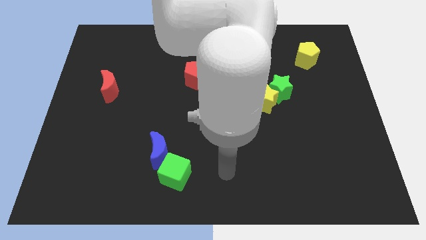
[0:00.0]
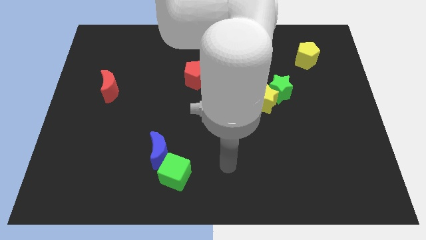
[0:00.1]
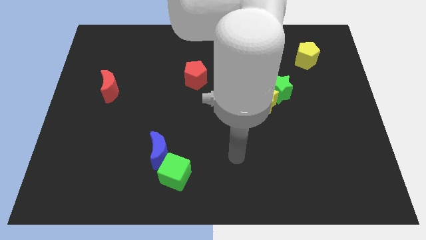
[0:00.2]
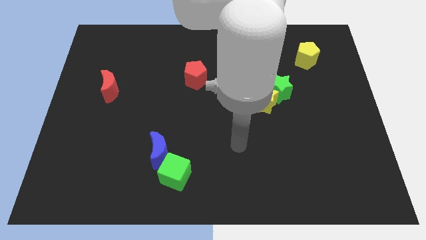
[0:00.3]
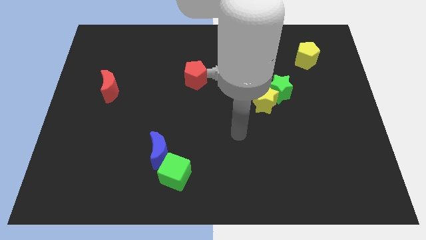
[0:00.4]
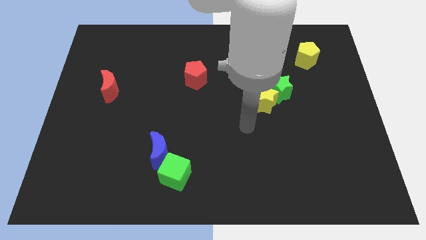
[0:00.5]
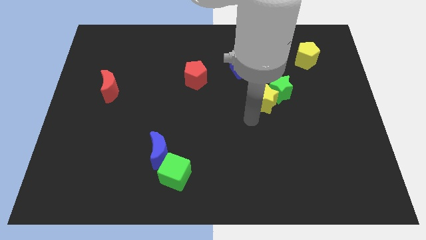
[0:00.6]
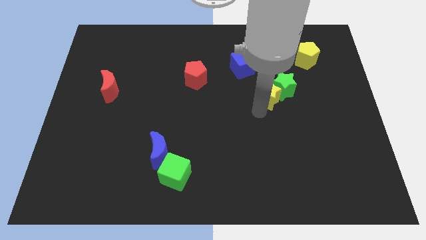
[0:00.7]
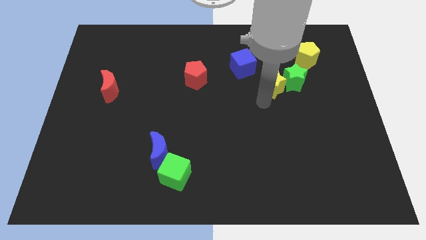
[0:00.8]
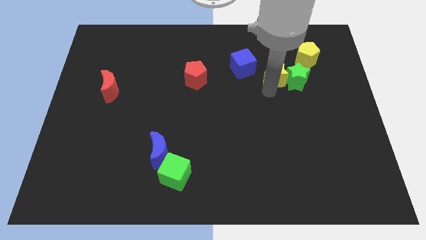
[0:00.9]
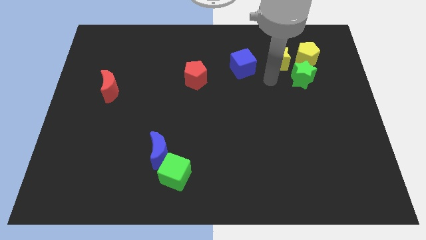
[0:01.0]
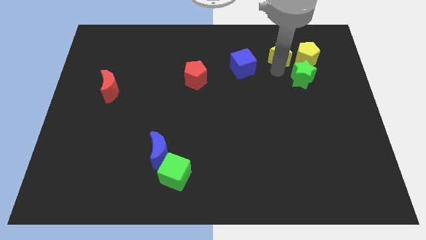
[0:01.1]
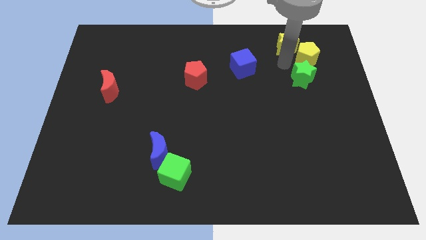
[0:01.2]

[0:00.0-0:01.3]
separate the green star from the yellow star

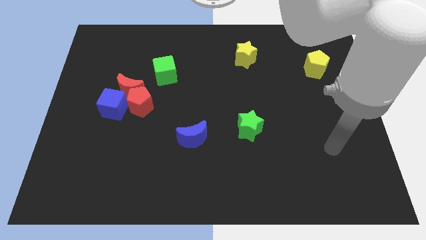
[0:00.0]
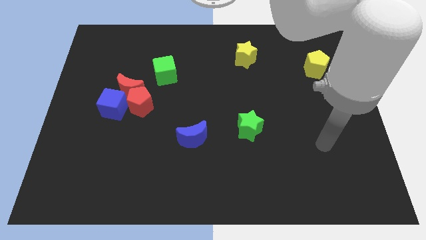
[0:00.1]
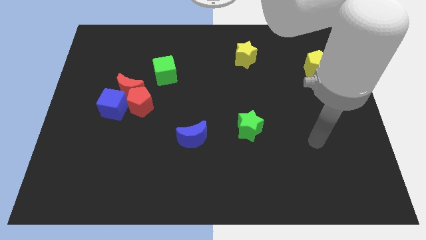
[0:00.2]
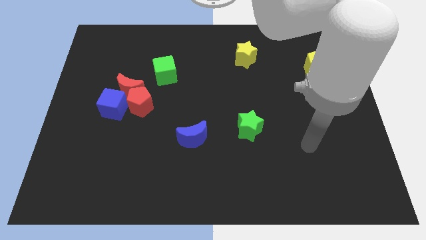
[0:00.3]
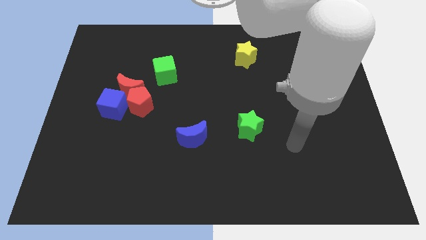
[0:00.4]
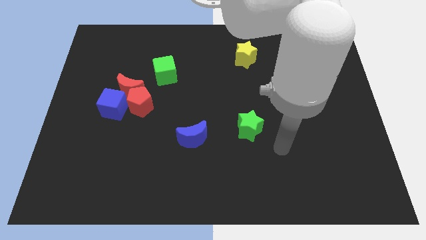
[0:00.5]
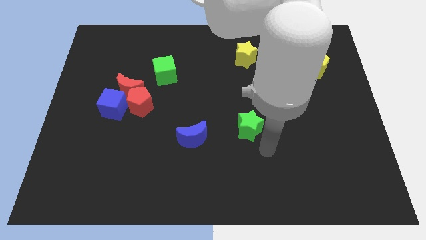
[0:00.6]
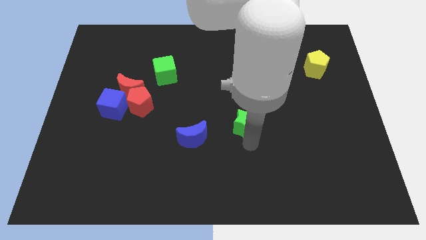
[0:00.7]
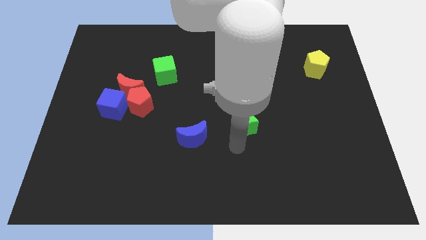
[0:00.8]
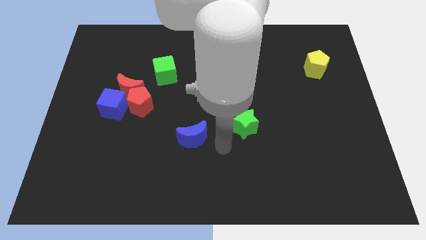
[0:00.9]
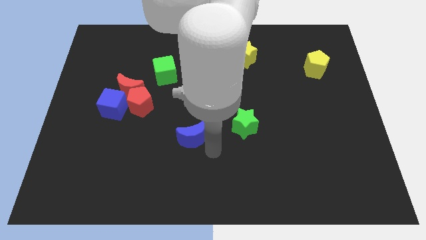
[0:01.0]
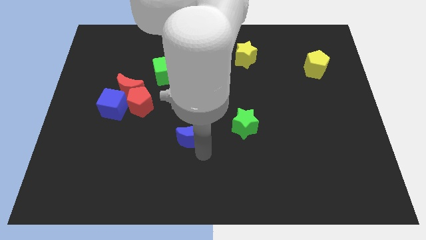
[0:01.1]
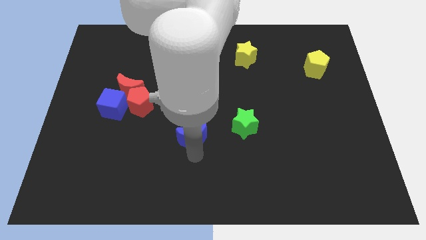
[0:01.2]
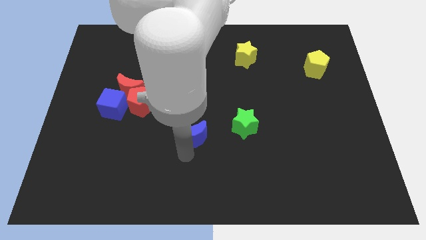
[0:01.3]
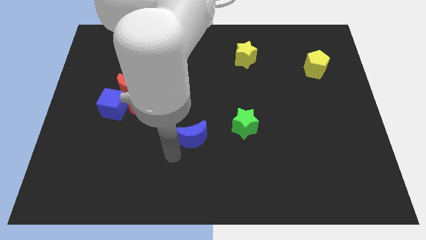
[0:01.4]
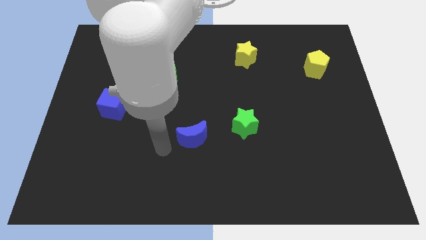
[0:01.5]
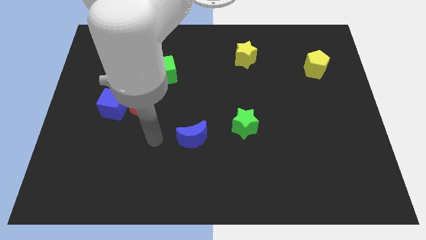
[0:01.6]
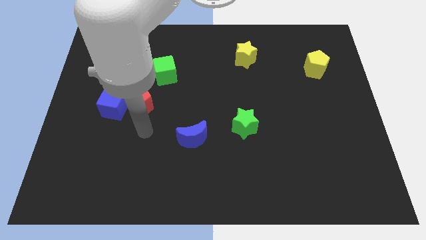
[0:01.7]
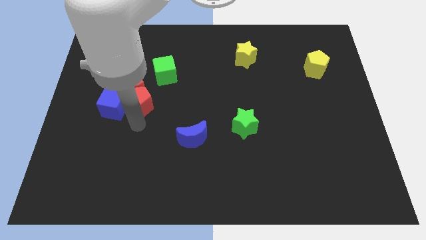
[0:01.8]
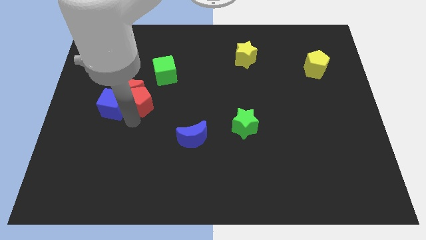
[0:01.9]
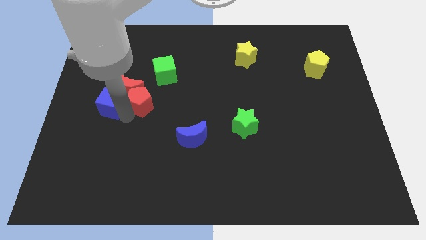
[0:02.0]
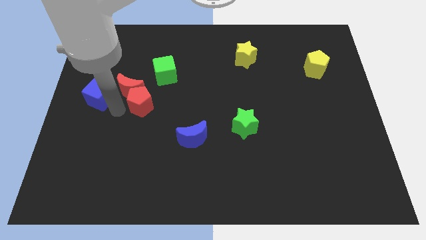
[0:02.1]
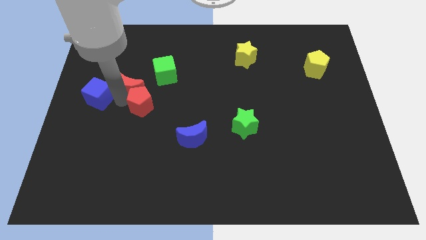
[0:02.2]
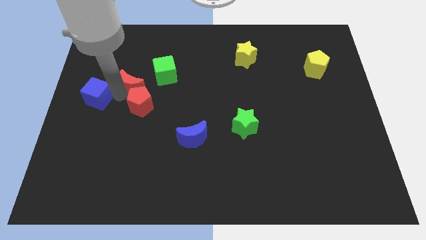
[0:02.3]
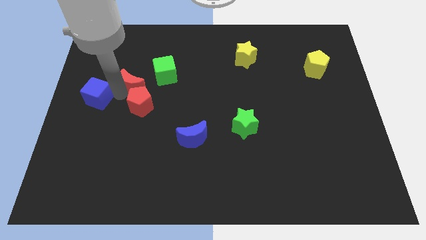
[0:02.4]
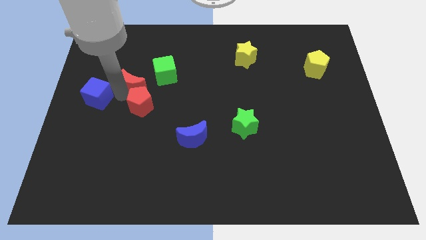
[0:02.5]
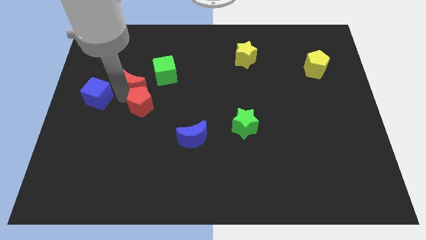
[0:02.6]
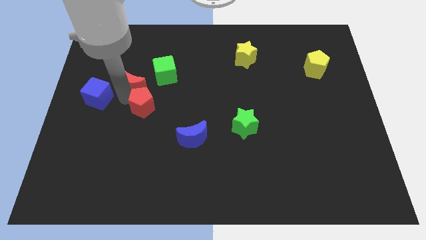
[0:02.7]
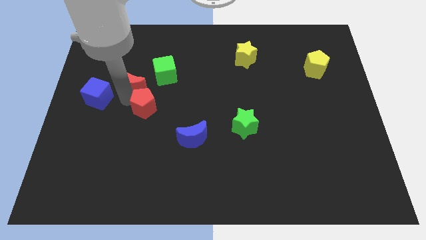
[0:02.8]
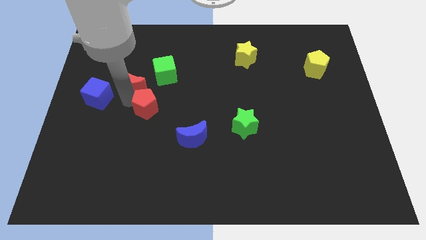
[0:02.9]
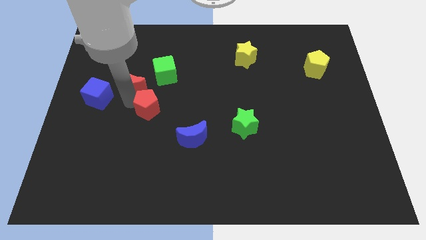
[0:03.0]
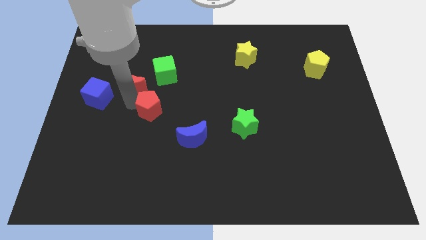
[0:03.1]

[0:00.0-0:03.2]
separate the red pentagon from the red moon and blue cube

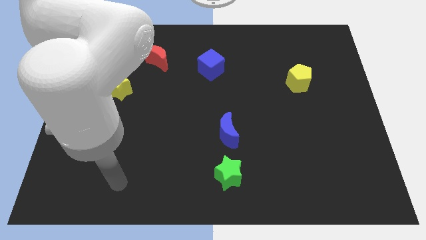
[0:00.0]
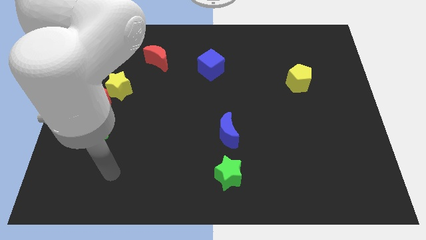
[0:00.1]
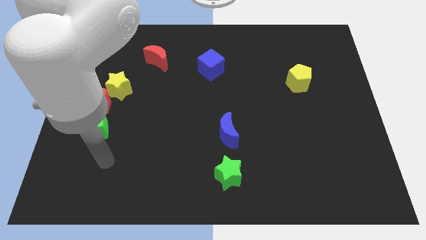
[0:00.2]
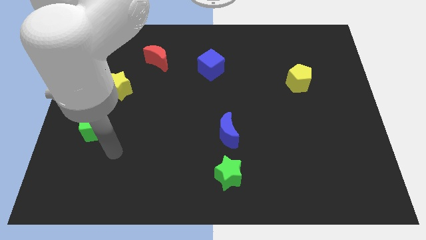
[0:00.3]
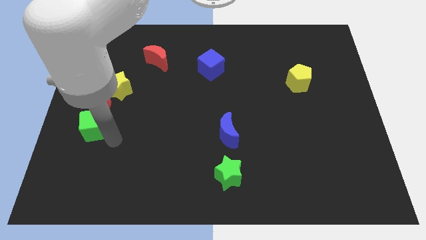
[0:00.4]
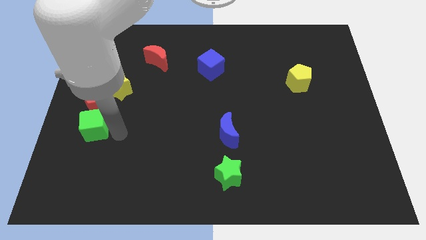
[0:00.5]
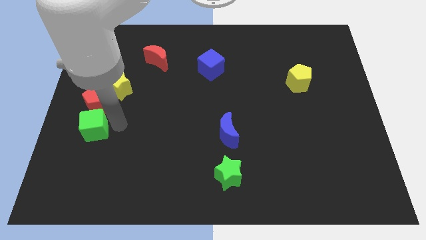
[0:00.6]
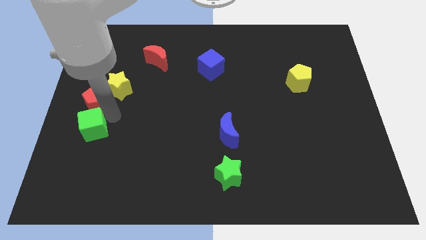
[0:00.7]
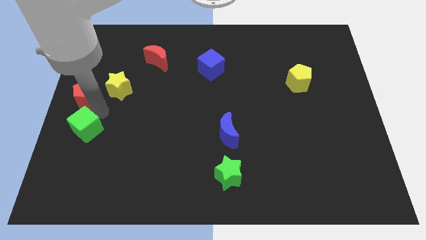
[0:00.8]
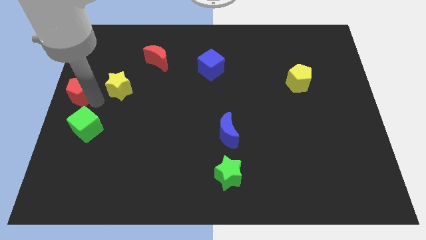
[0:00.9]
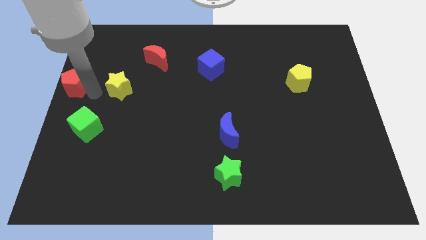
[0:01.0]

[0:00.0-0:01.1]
pull the yellow star apart from the red pentagon

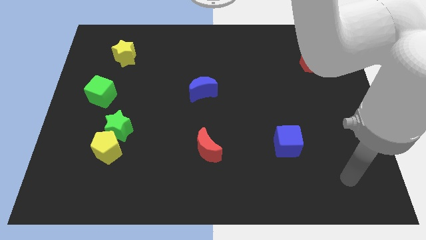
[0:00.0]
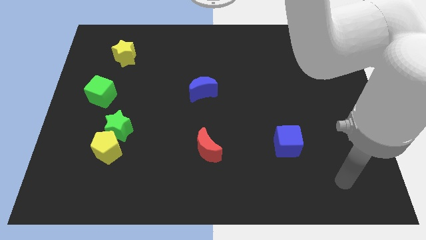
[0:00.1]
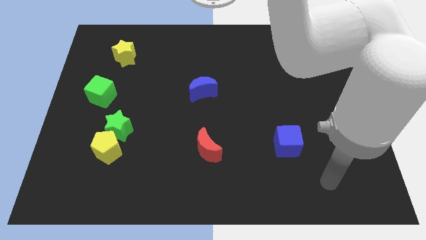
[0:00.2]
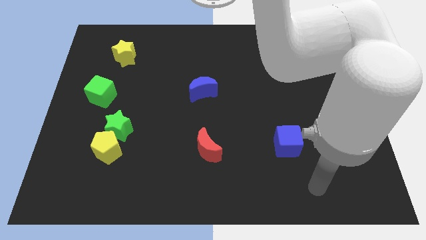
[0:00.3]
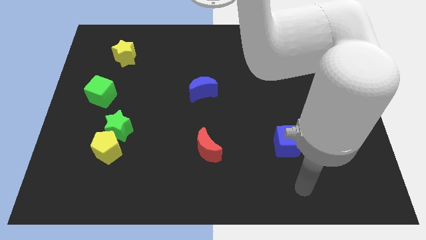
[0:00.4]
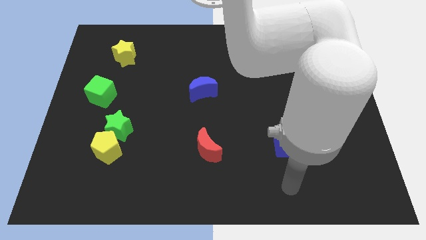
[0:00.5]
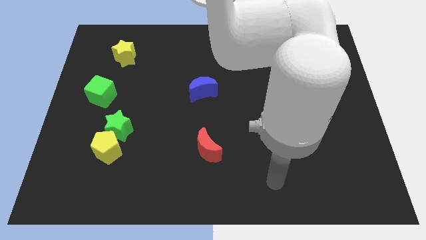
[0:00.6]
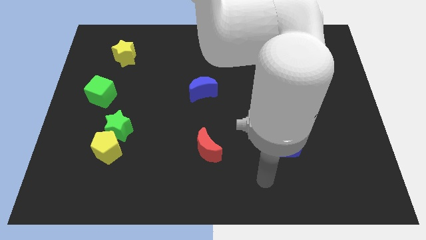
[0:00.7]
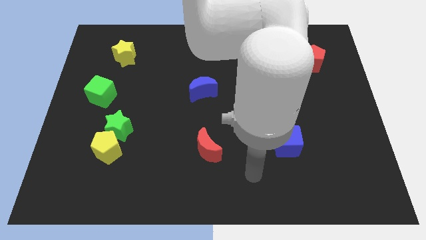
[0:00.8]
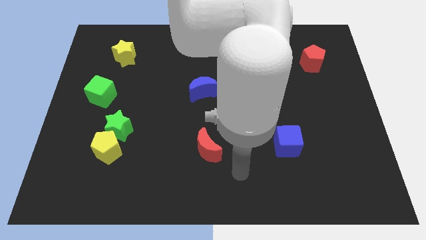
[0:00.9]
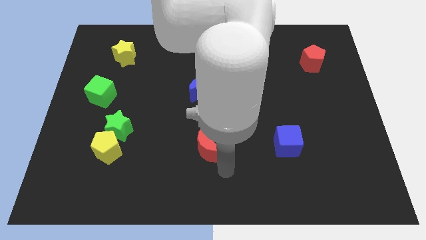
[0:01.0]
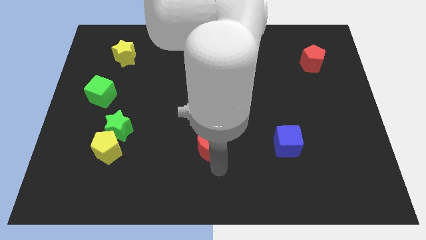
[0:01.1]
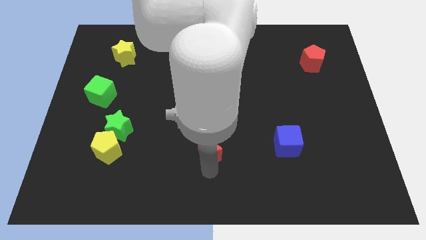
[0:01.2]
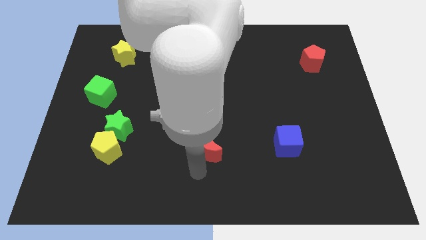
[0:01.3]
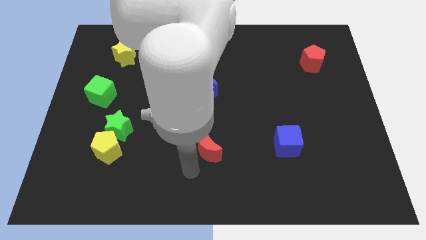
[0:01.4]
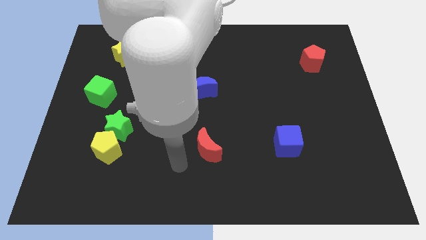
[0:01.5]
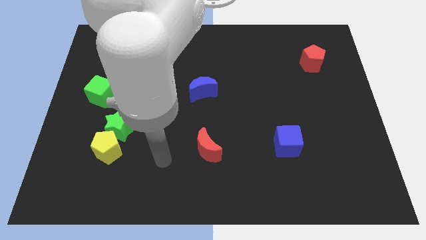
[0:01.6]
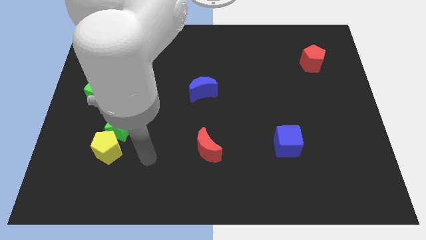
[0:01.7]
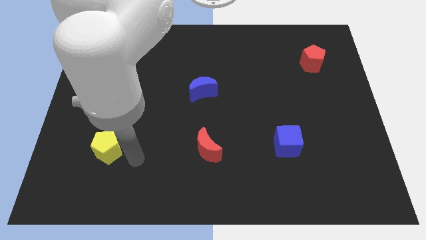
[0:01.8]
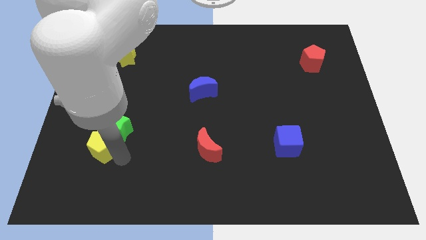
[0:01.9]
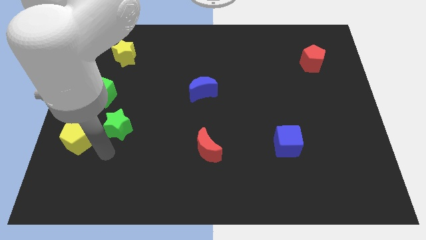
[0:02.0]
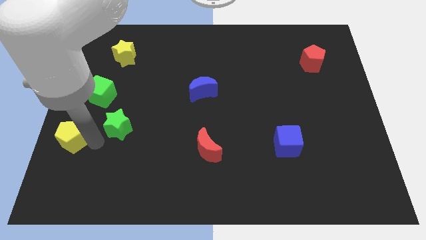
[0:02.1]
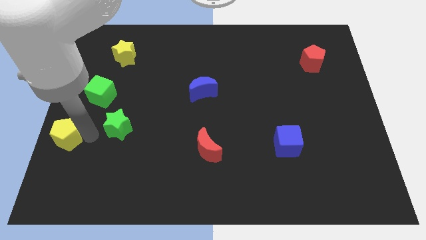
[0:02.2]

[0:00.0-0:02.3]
pull the green star apart from the yellow pentagon

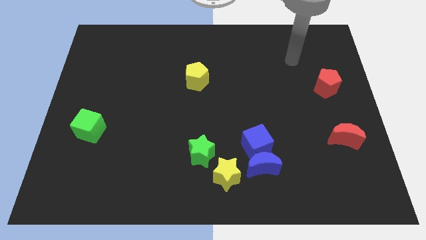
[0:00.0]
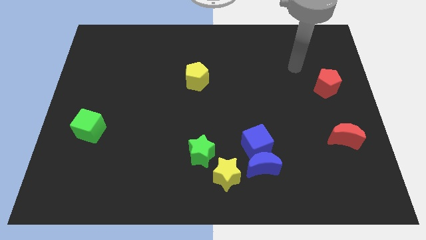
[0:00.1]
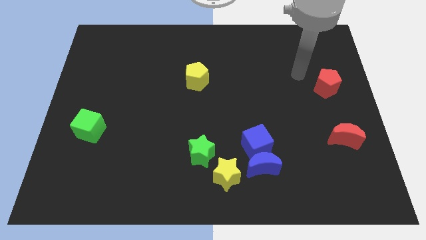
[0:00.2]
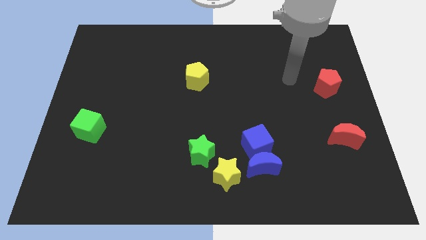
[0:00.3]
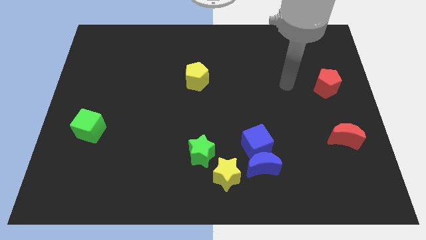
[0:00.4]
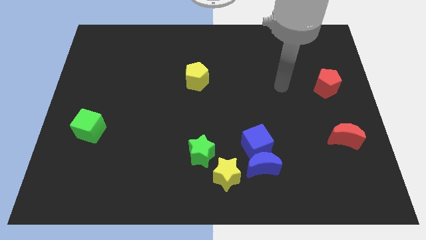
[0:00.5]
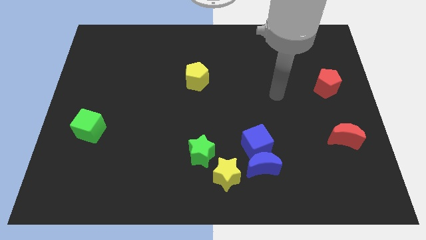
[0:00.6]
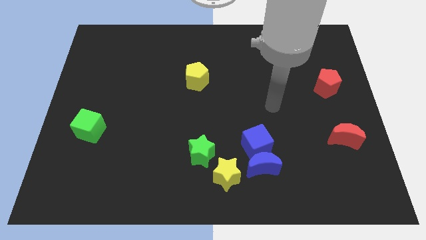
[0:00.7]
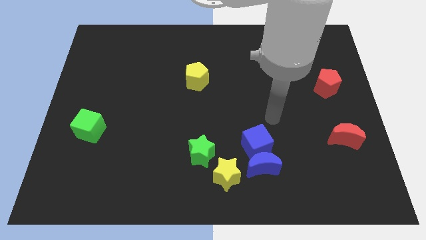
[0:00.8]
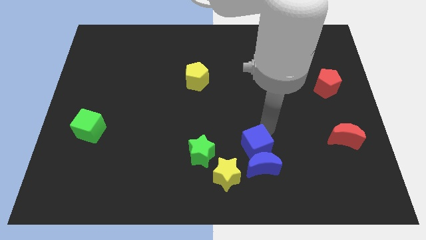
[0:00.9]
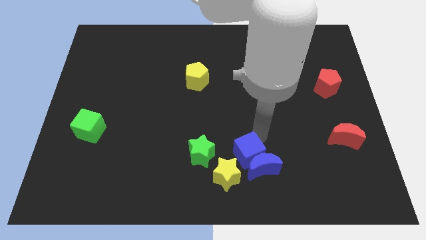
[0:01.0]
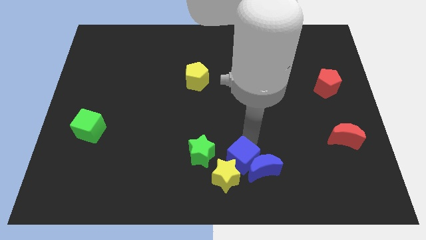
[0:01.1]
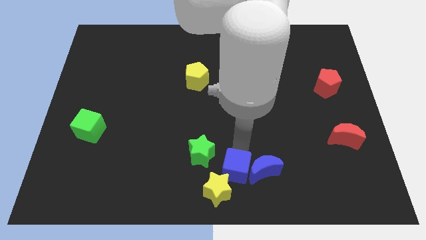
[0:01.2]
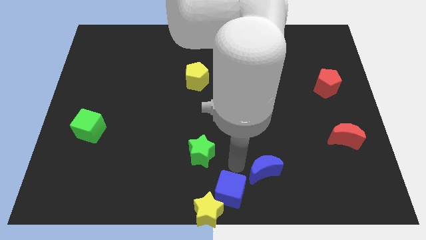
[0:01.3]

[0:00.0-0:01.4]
separate the blue moon from the blue cube and yellow star
